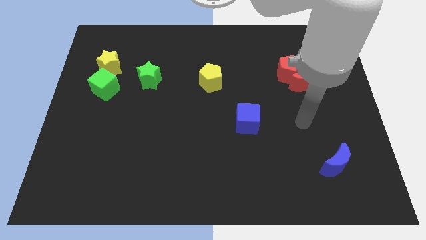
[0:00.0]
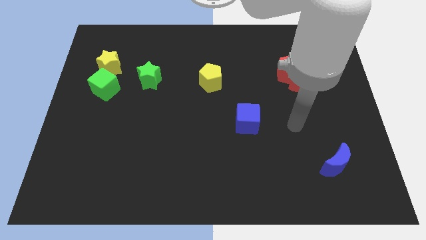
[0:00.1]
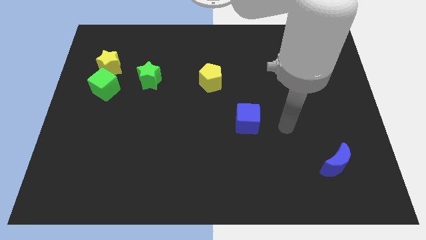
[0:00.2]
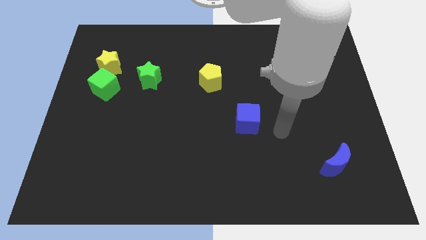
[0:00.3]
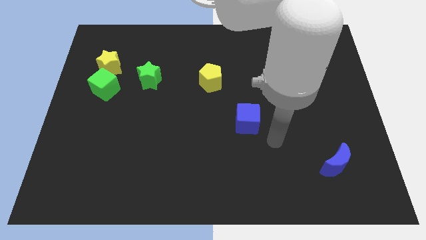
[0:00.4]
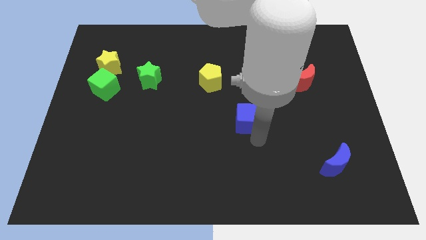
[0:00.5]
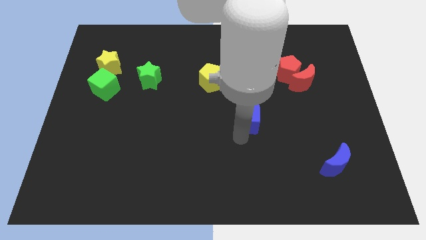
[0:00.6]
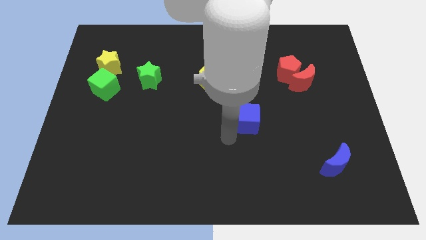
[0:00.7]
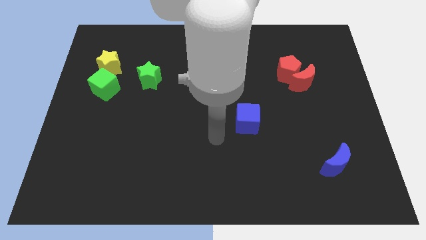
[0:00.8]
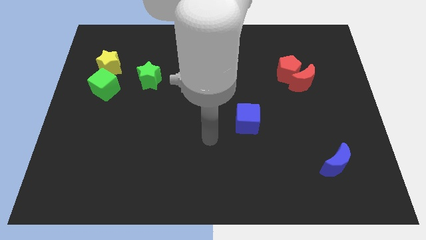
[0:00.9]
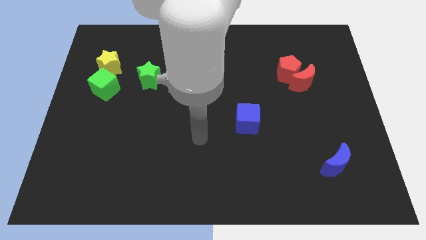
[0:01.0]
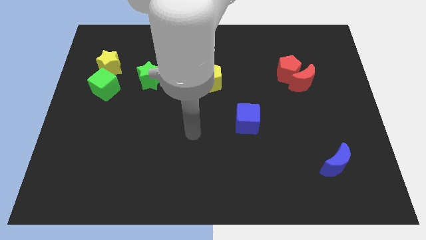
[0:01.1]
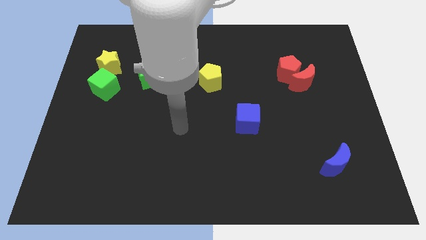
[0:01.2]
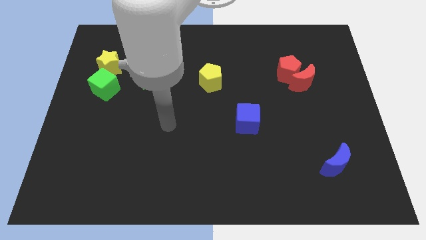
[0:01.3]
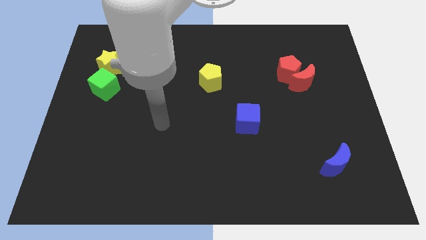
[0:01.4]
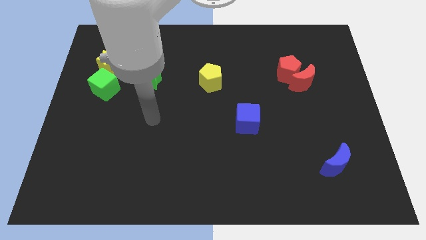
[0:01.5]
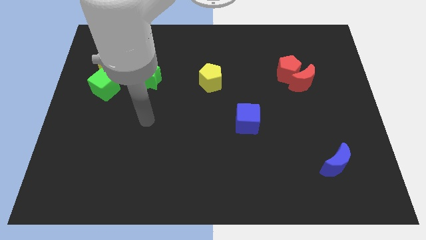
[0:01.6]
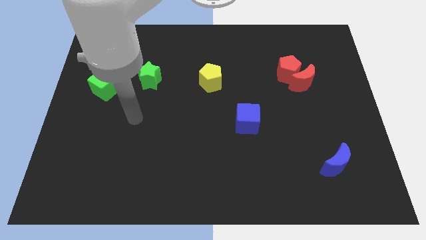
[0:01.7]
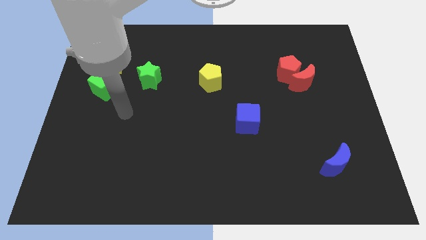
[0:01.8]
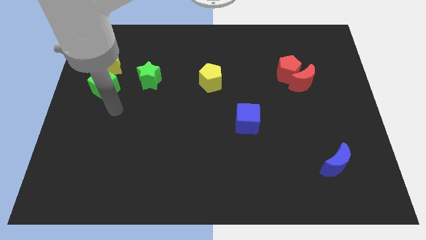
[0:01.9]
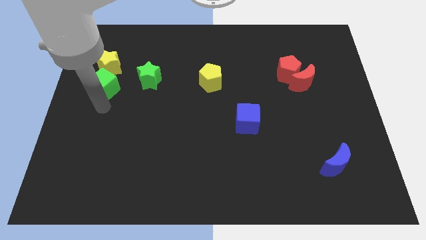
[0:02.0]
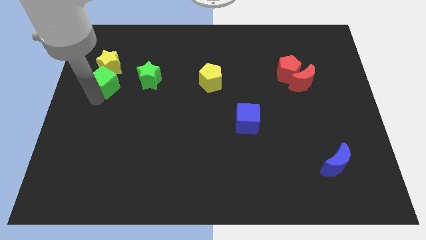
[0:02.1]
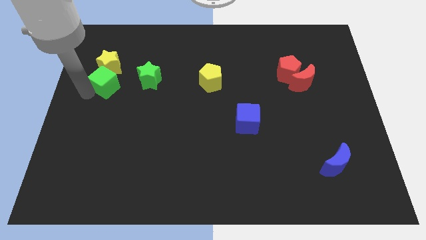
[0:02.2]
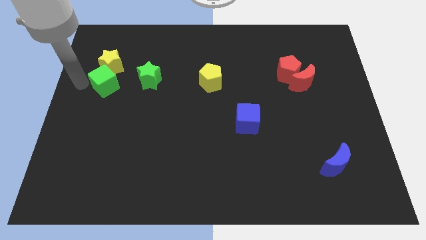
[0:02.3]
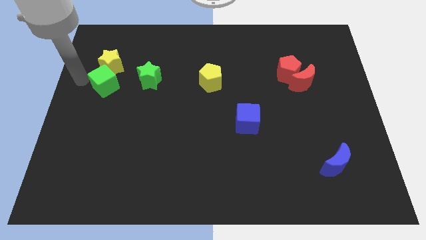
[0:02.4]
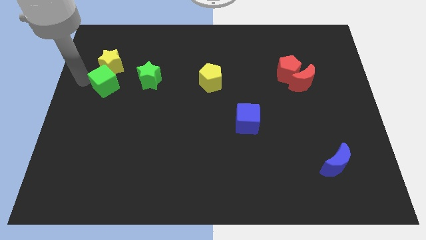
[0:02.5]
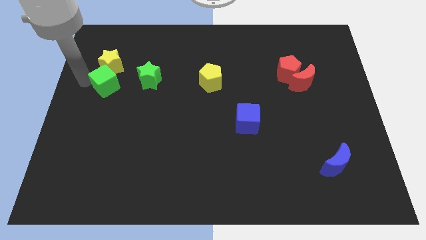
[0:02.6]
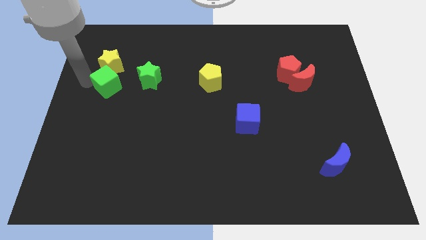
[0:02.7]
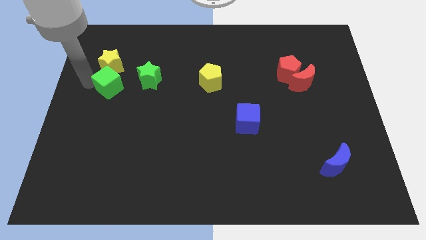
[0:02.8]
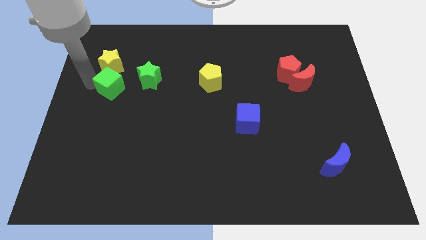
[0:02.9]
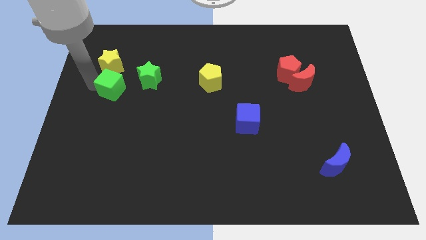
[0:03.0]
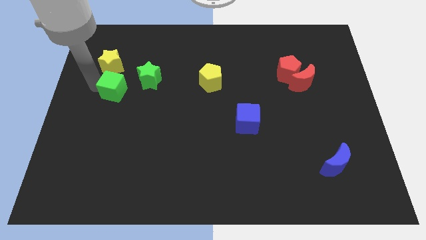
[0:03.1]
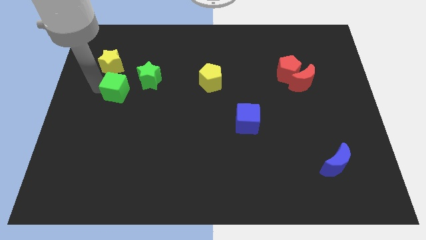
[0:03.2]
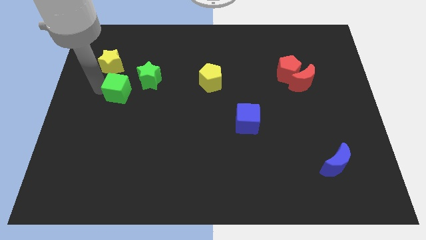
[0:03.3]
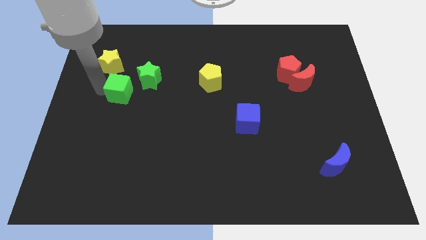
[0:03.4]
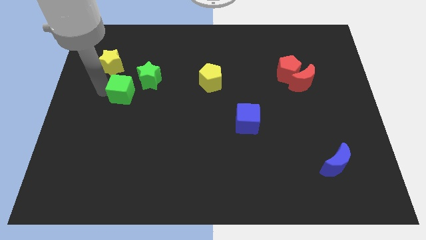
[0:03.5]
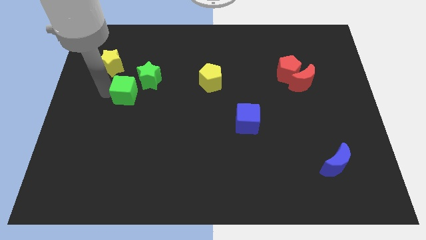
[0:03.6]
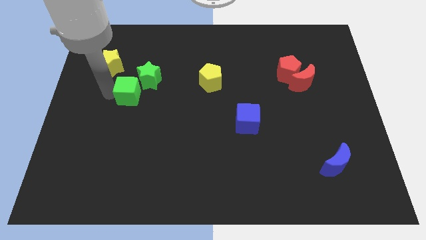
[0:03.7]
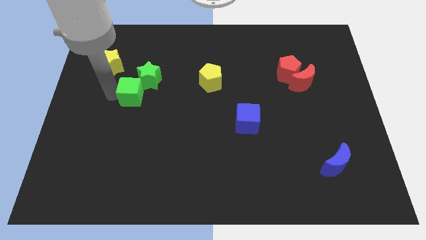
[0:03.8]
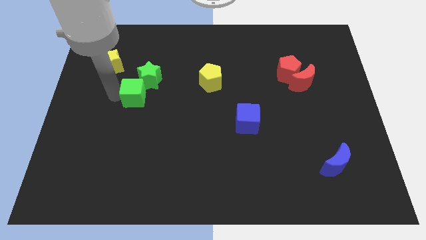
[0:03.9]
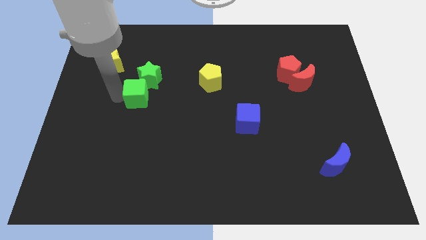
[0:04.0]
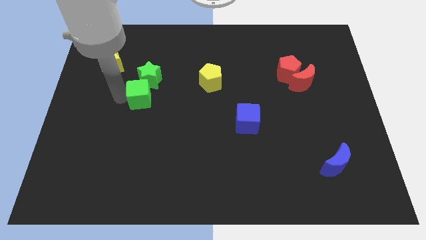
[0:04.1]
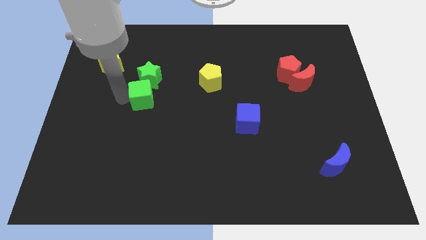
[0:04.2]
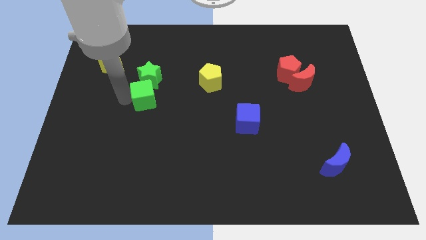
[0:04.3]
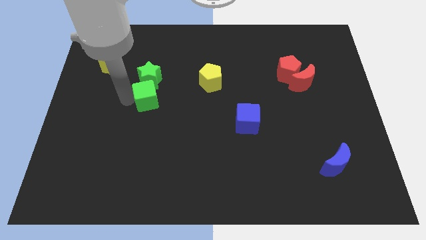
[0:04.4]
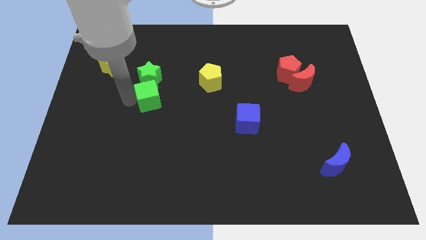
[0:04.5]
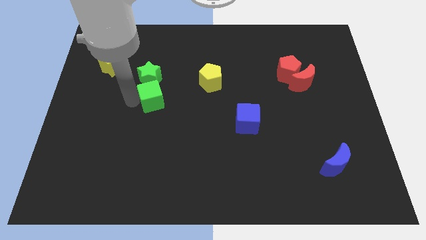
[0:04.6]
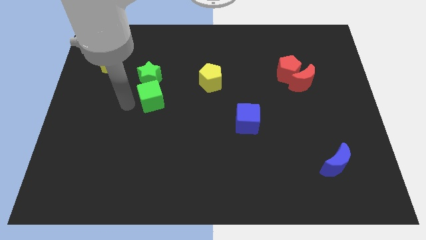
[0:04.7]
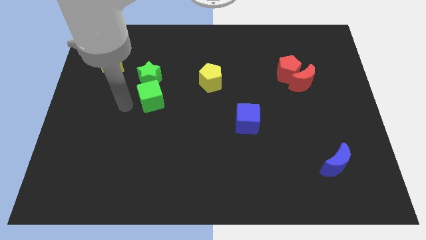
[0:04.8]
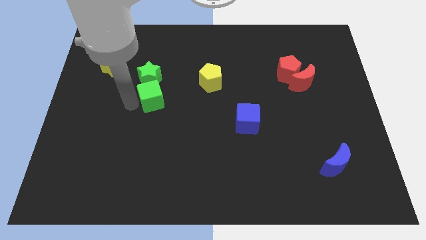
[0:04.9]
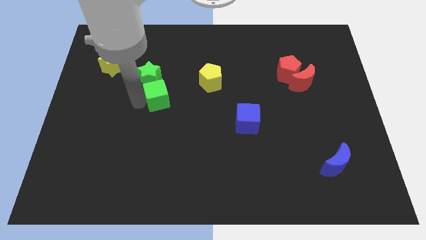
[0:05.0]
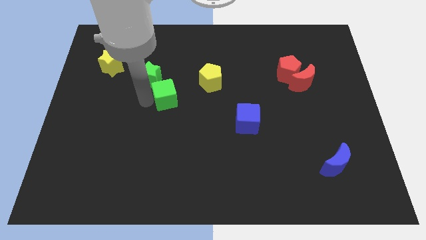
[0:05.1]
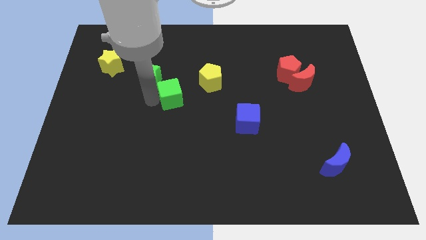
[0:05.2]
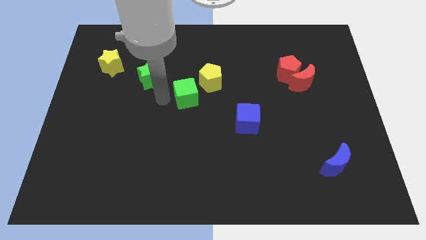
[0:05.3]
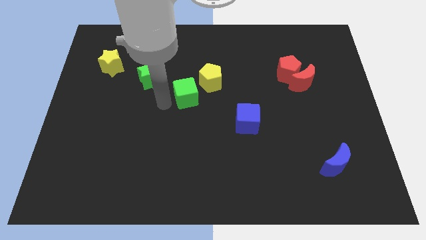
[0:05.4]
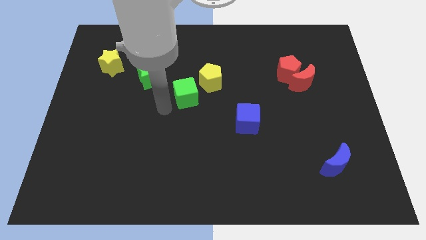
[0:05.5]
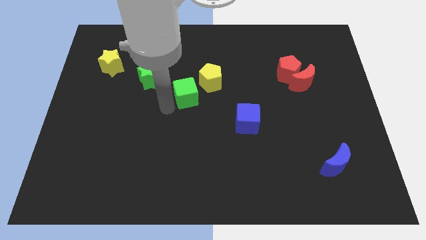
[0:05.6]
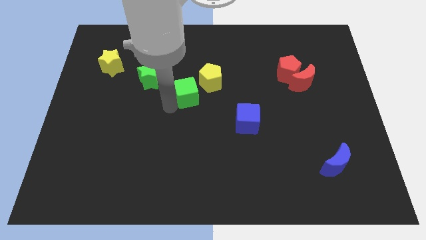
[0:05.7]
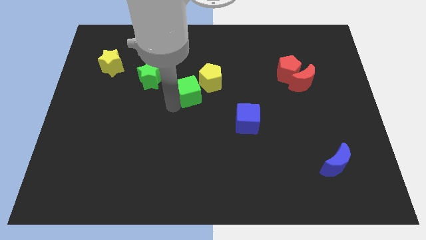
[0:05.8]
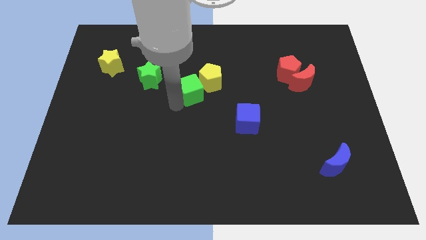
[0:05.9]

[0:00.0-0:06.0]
push the green cube next to the yellow pentagon

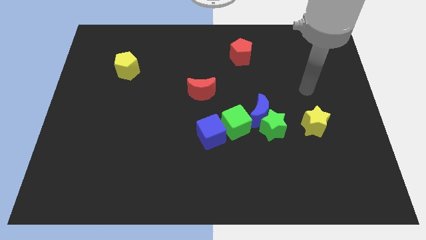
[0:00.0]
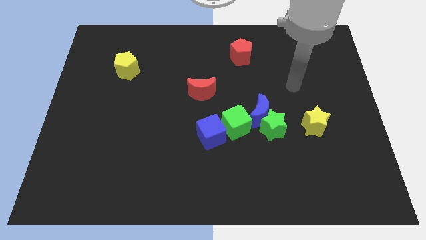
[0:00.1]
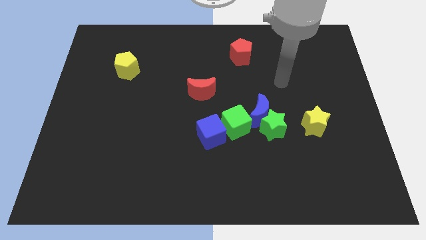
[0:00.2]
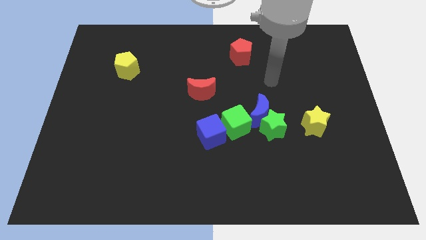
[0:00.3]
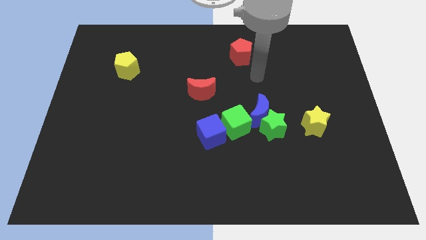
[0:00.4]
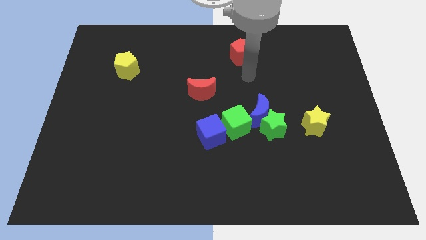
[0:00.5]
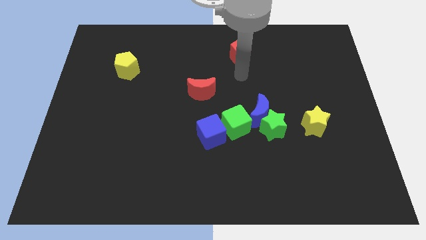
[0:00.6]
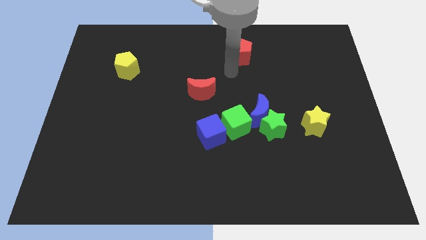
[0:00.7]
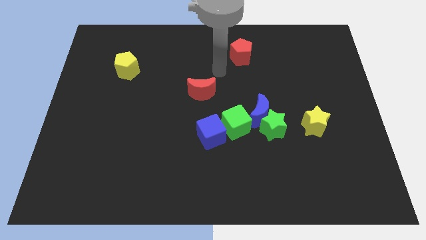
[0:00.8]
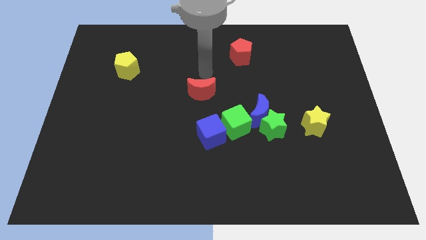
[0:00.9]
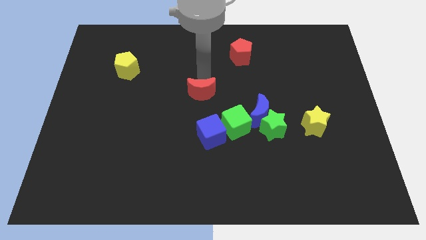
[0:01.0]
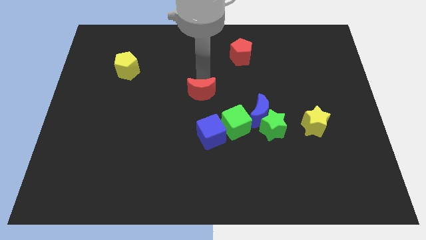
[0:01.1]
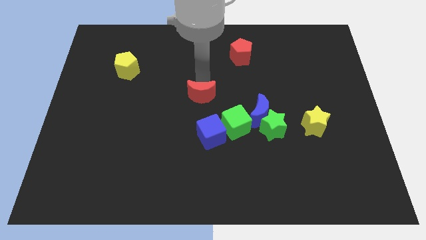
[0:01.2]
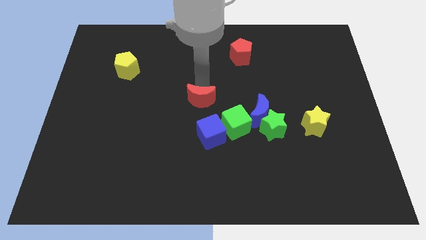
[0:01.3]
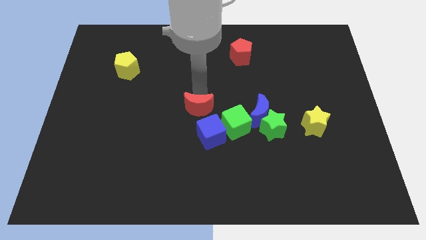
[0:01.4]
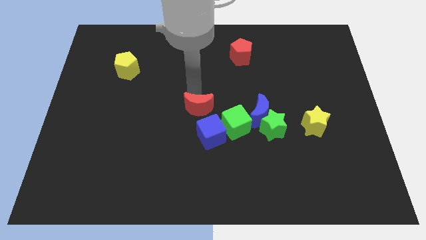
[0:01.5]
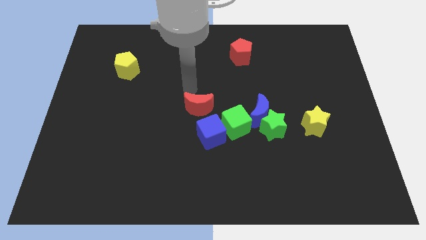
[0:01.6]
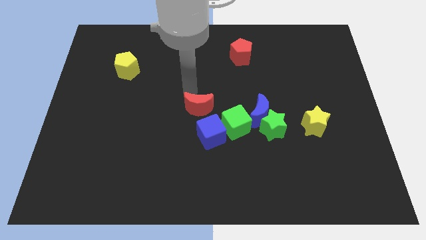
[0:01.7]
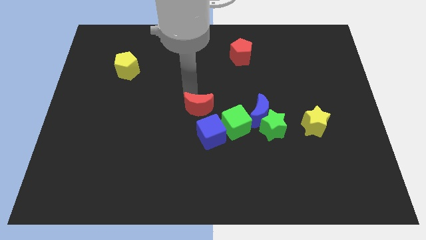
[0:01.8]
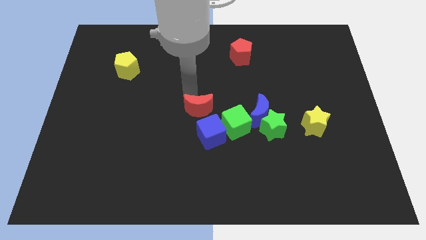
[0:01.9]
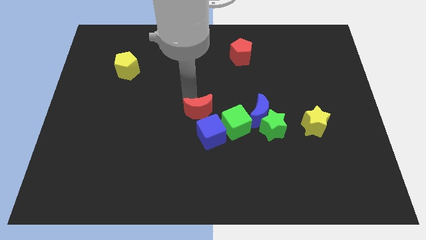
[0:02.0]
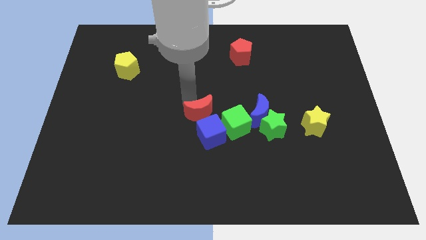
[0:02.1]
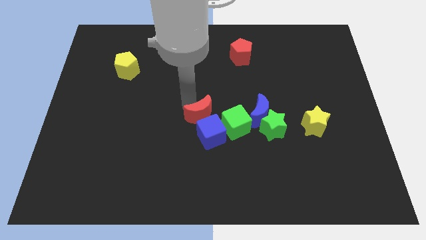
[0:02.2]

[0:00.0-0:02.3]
push the red moon close to the blue cube
